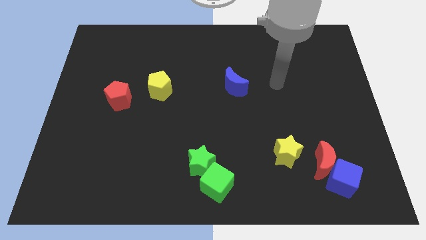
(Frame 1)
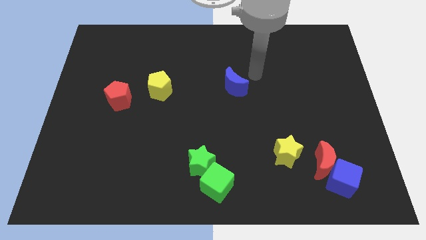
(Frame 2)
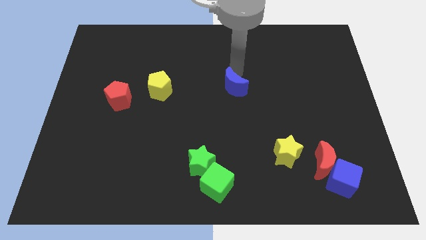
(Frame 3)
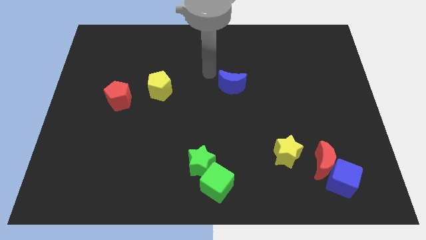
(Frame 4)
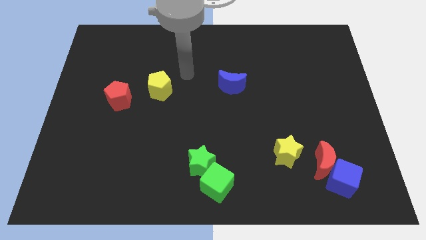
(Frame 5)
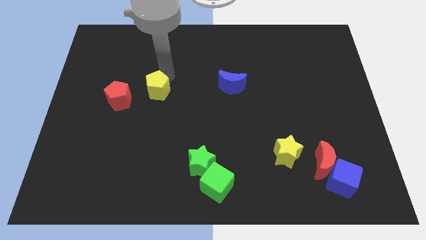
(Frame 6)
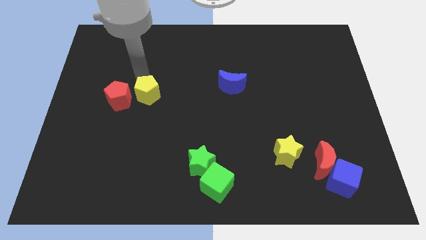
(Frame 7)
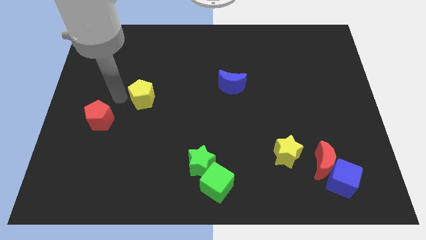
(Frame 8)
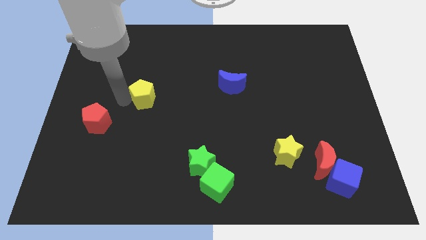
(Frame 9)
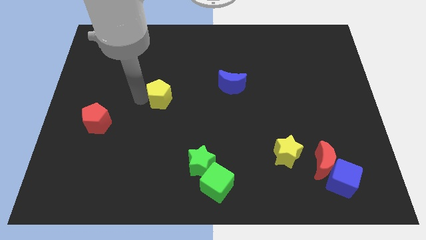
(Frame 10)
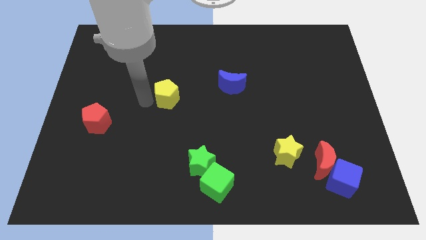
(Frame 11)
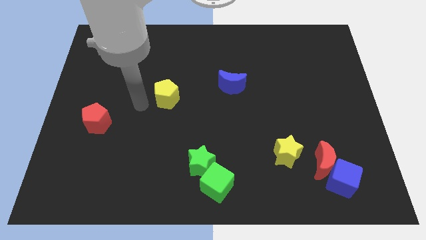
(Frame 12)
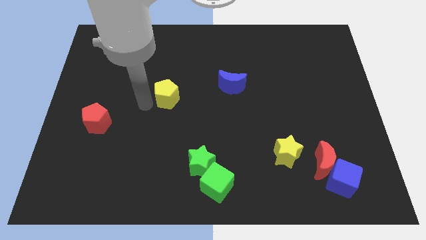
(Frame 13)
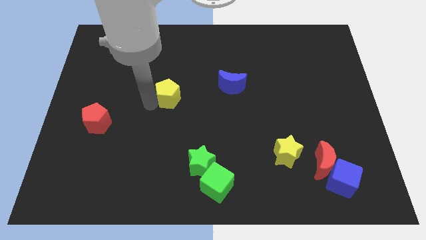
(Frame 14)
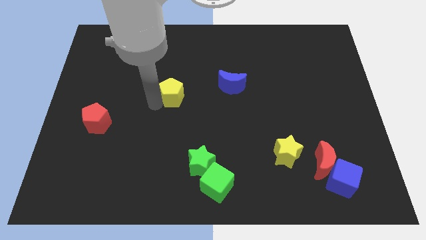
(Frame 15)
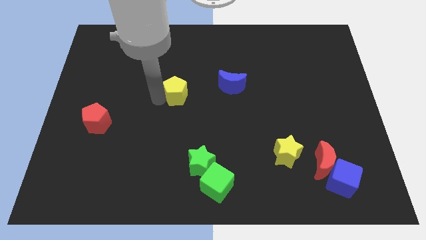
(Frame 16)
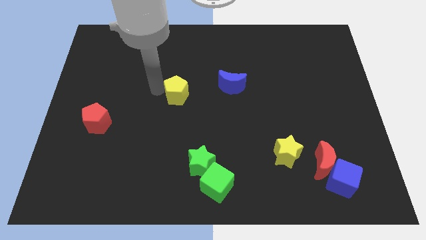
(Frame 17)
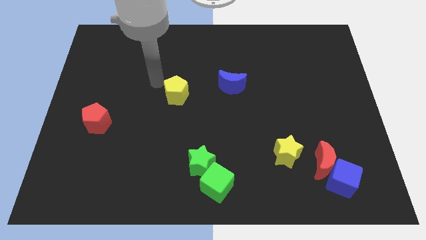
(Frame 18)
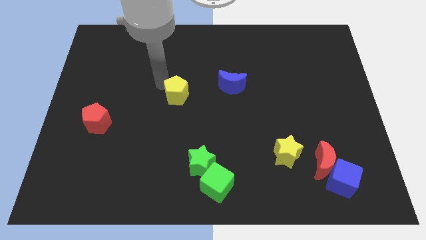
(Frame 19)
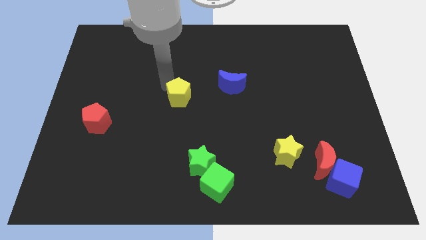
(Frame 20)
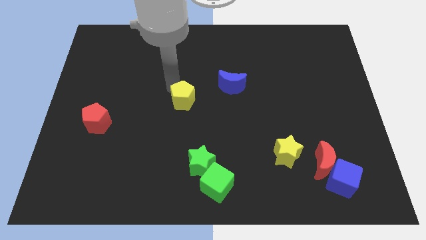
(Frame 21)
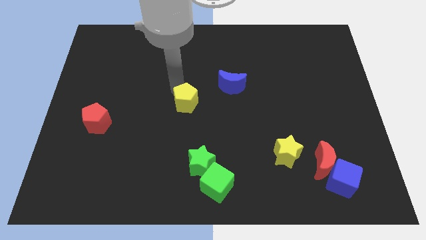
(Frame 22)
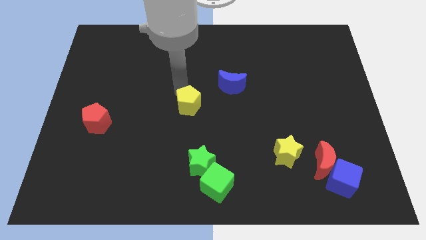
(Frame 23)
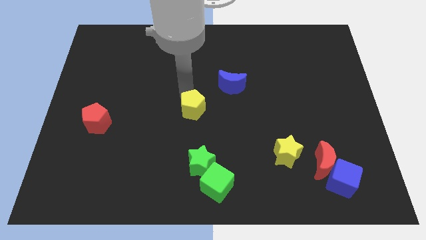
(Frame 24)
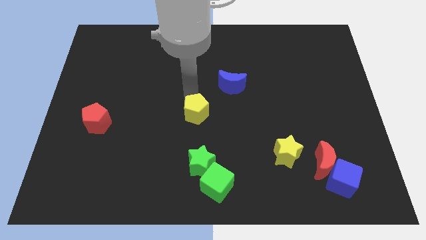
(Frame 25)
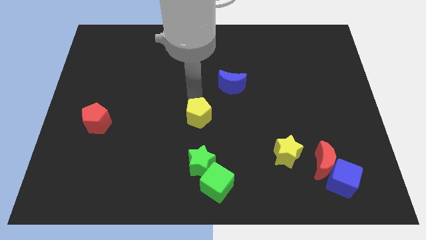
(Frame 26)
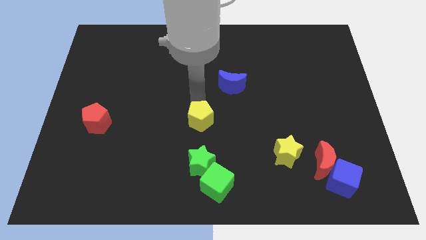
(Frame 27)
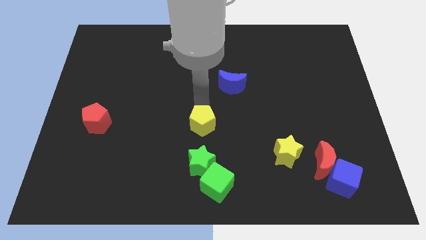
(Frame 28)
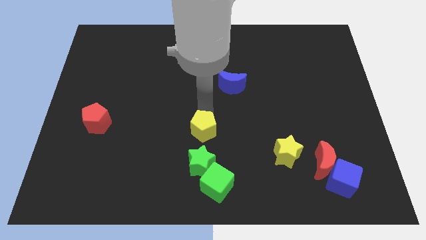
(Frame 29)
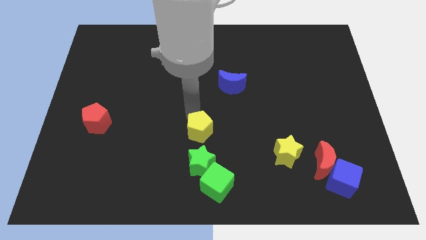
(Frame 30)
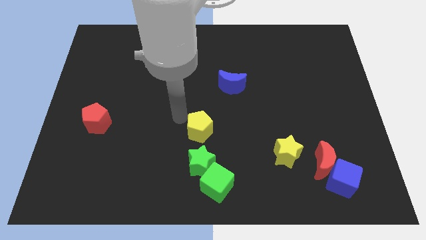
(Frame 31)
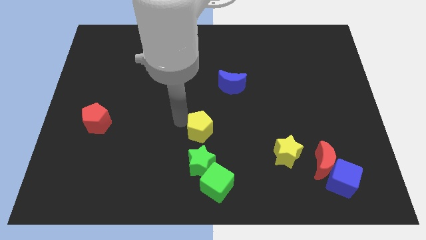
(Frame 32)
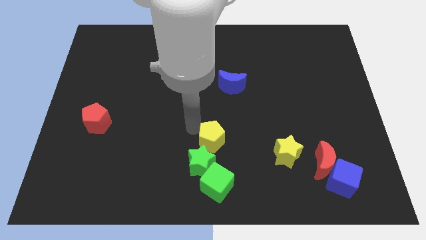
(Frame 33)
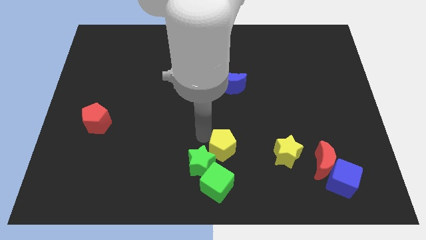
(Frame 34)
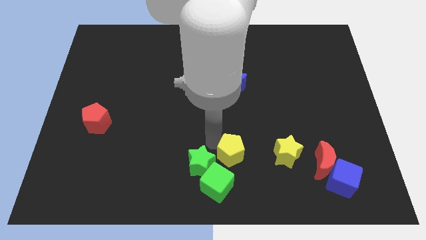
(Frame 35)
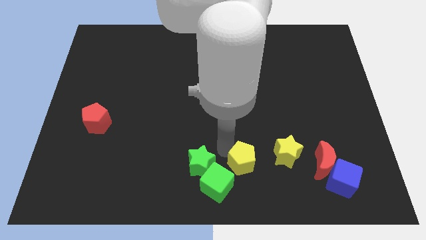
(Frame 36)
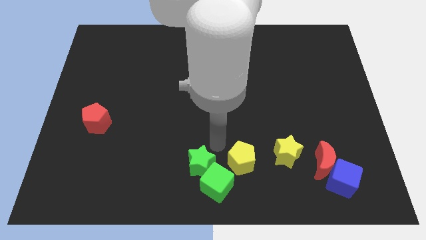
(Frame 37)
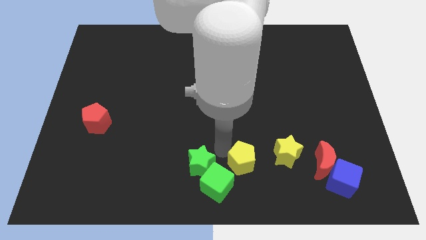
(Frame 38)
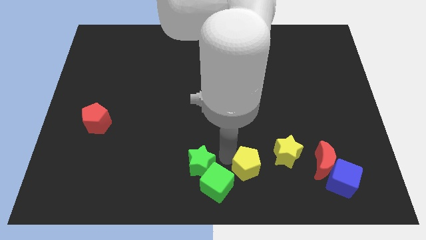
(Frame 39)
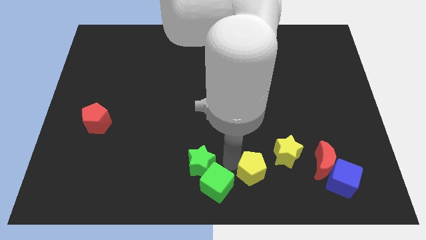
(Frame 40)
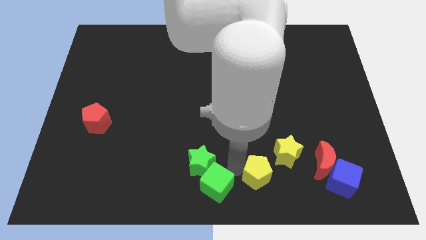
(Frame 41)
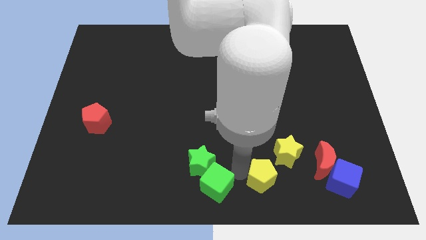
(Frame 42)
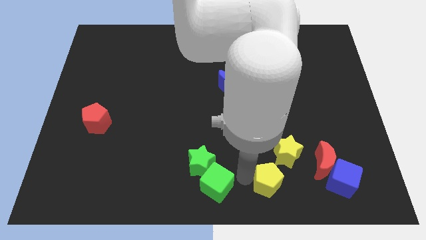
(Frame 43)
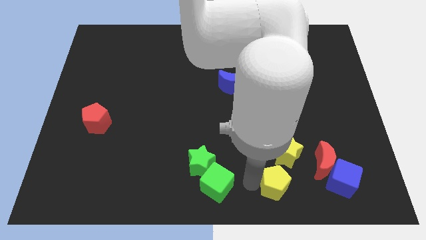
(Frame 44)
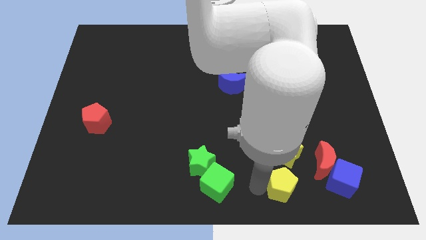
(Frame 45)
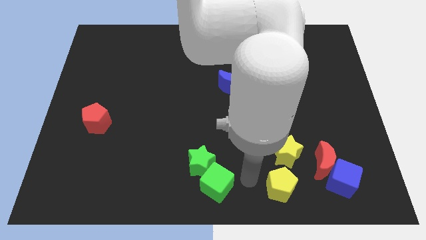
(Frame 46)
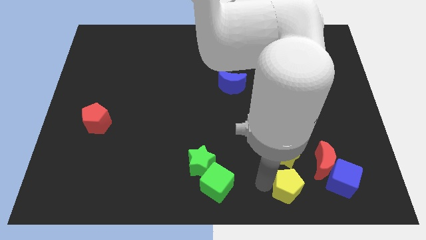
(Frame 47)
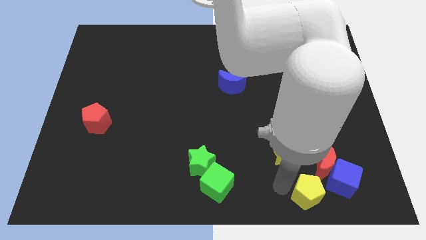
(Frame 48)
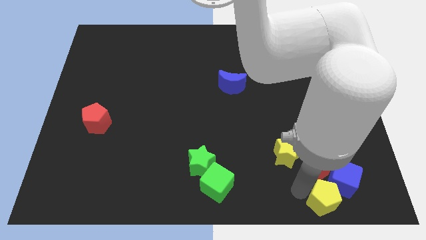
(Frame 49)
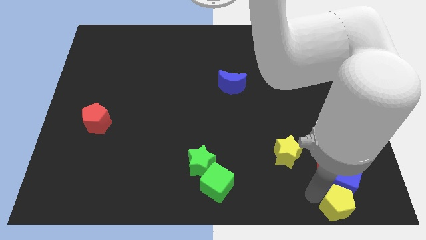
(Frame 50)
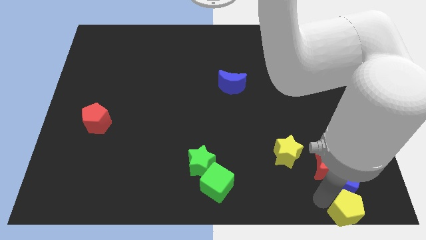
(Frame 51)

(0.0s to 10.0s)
move the yellow pentagon to the bottom right corner

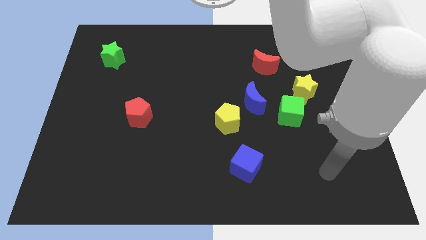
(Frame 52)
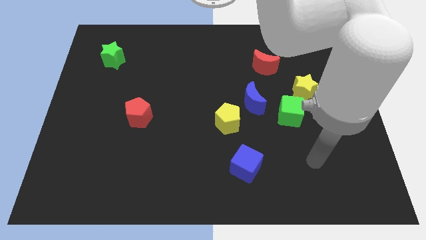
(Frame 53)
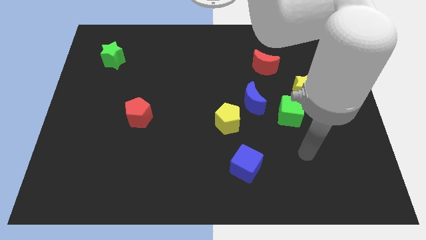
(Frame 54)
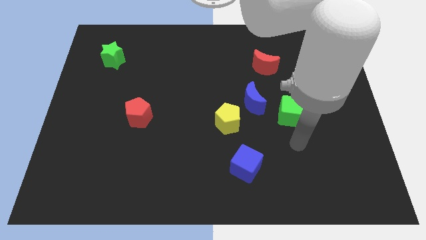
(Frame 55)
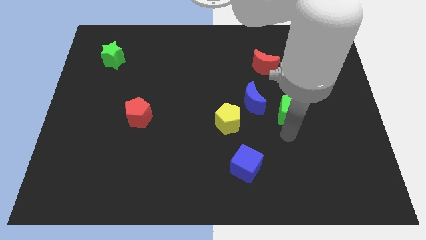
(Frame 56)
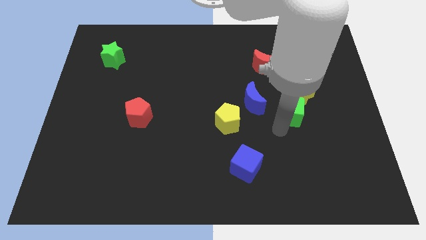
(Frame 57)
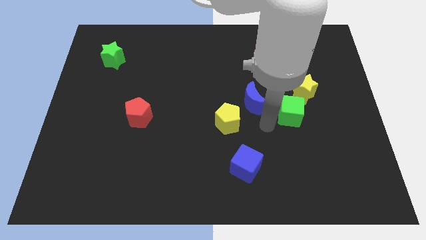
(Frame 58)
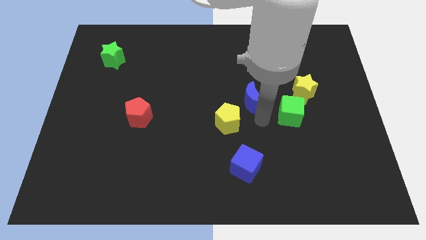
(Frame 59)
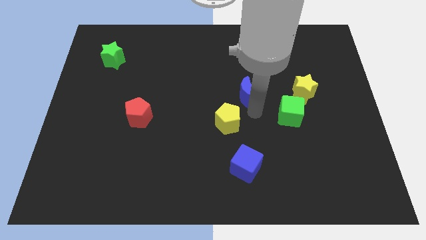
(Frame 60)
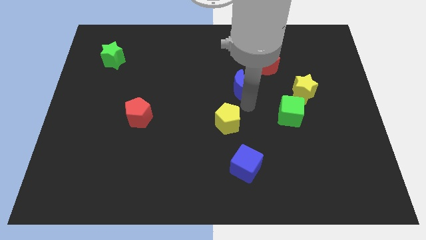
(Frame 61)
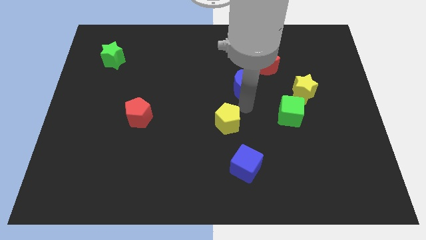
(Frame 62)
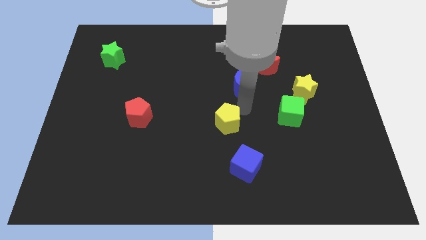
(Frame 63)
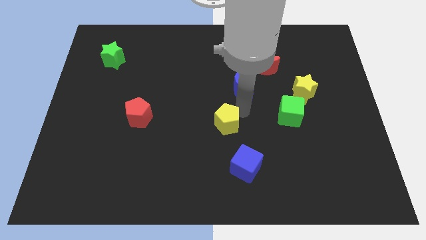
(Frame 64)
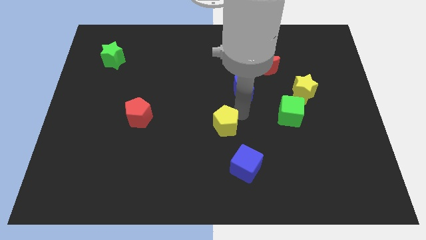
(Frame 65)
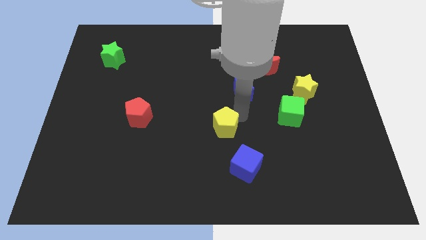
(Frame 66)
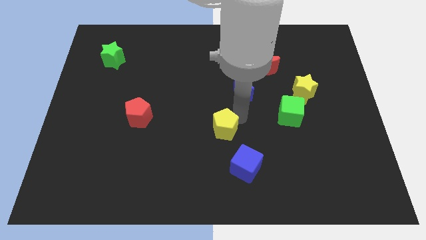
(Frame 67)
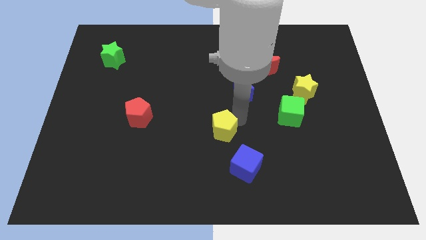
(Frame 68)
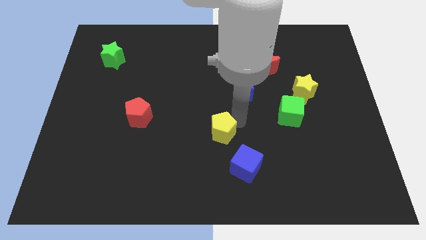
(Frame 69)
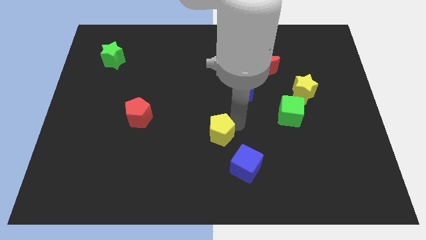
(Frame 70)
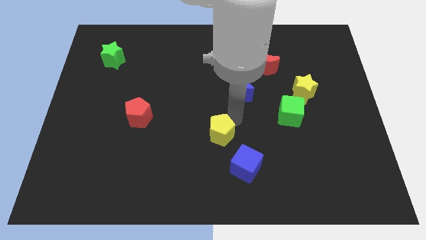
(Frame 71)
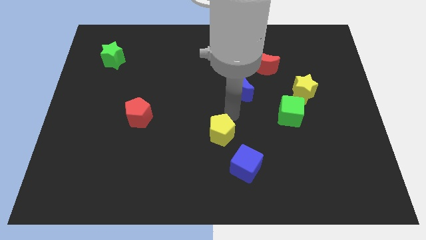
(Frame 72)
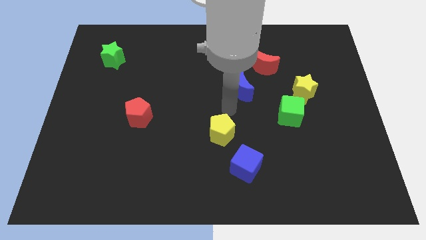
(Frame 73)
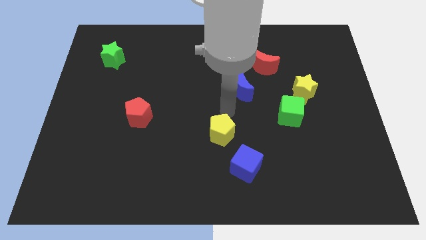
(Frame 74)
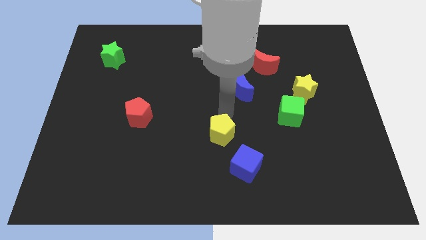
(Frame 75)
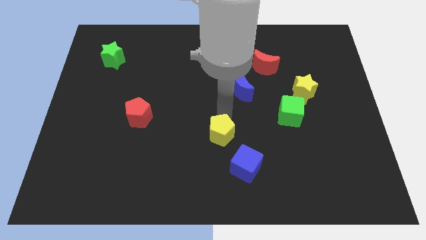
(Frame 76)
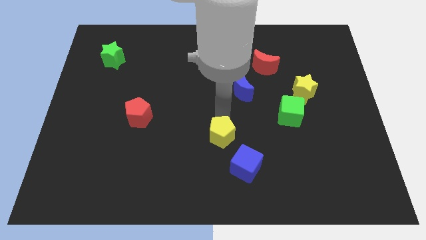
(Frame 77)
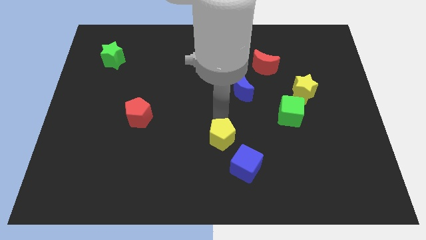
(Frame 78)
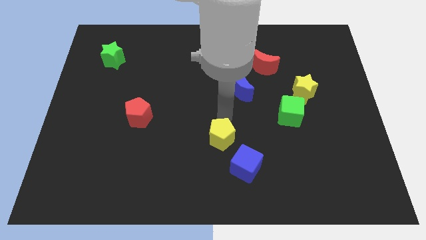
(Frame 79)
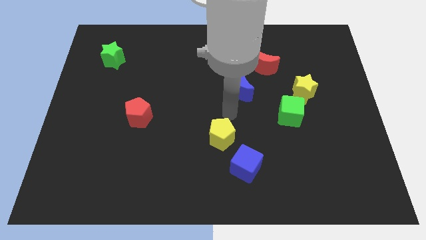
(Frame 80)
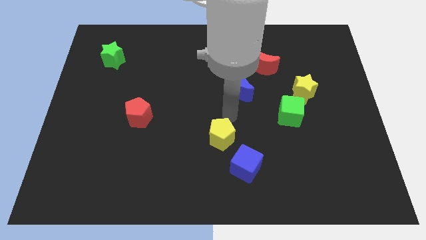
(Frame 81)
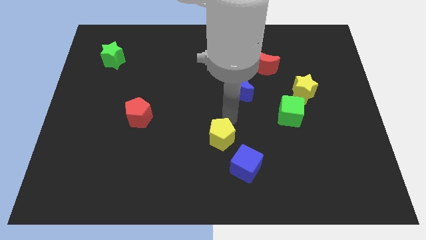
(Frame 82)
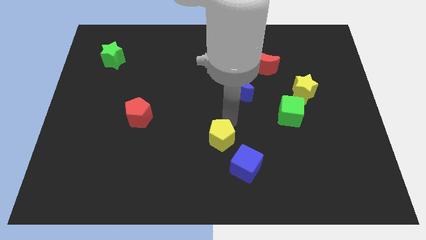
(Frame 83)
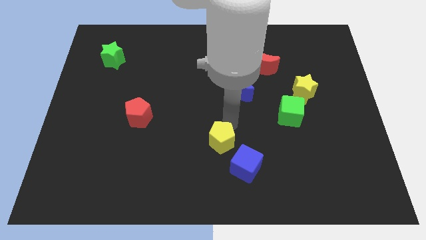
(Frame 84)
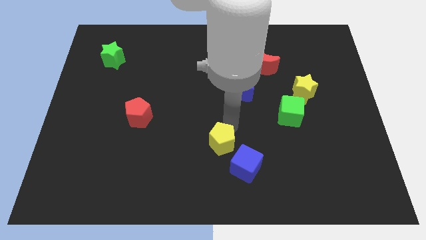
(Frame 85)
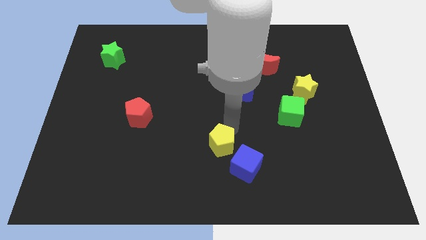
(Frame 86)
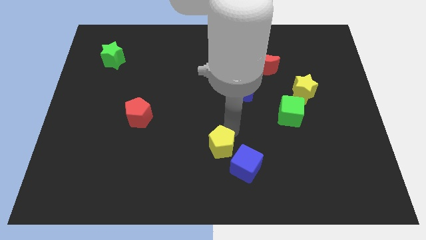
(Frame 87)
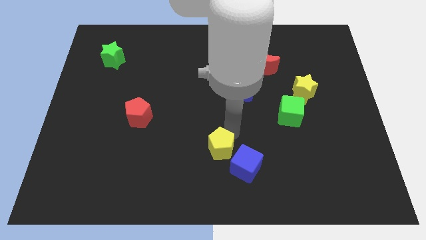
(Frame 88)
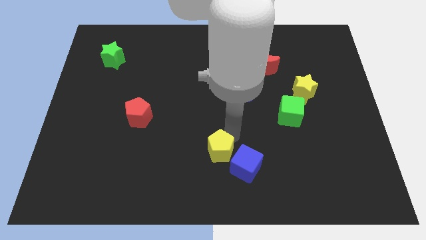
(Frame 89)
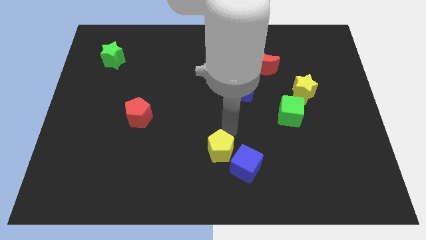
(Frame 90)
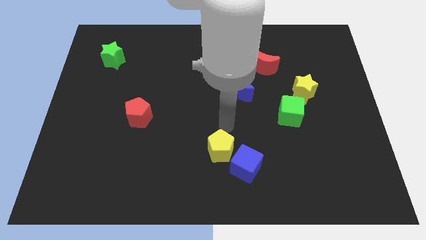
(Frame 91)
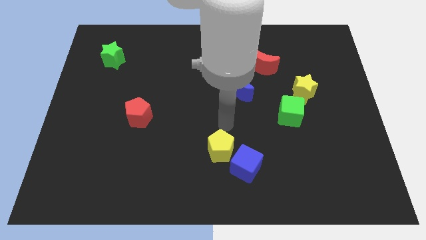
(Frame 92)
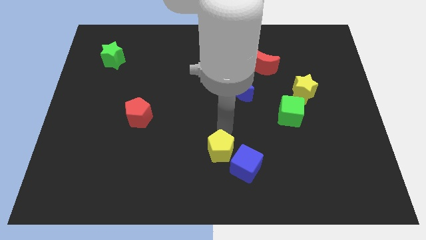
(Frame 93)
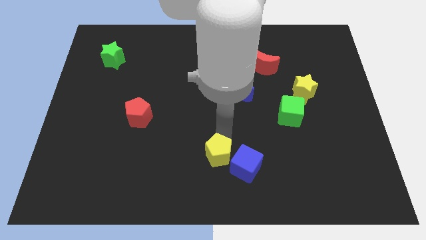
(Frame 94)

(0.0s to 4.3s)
move the yellow pentagon to the bottom
